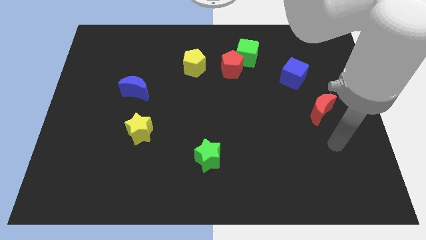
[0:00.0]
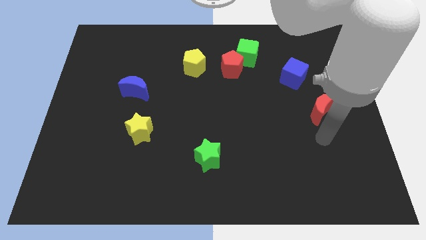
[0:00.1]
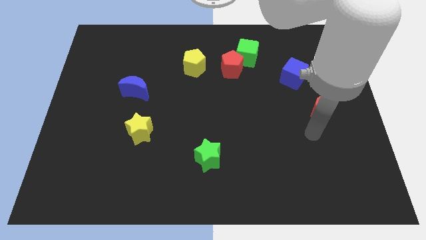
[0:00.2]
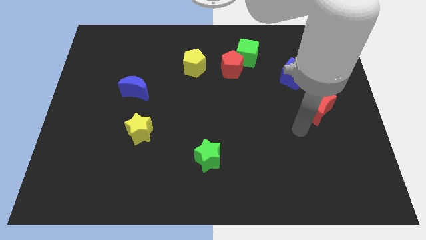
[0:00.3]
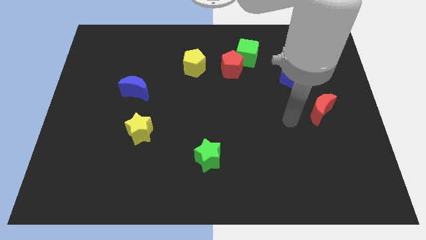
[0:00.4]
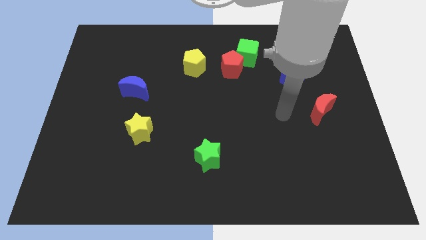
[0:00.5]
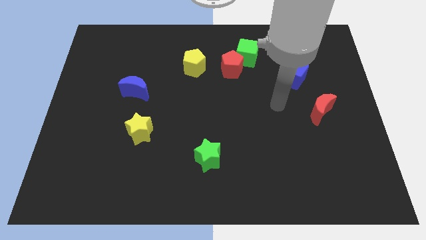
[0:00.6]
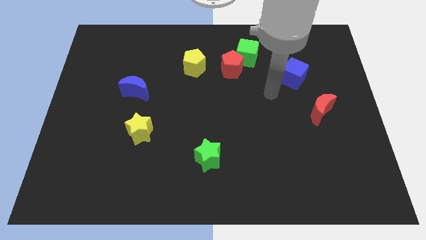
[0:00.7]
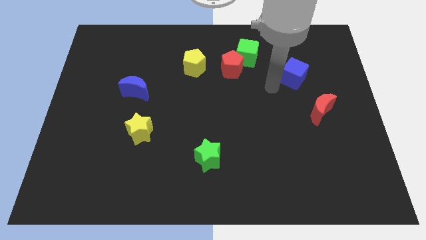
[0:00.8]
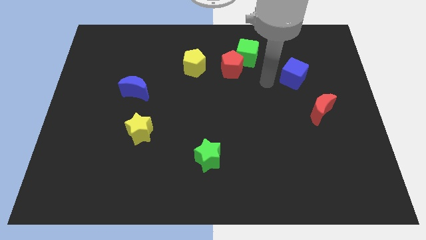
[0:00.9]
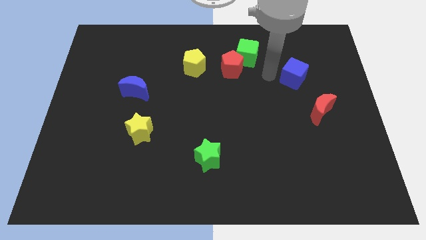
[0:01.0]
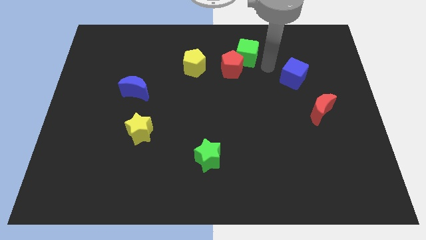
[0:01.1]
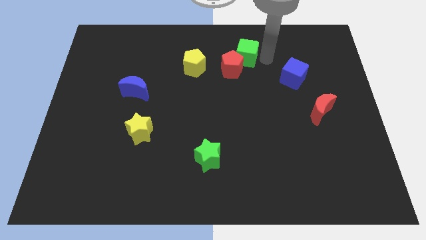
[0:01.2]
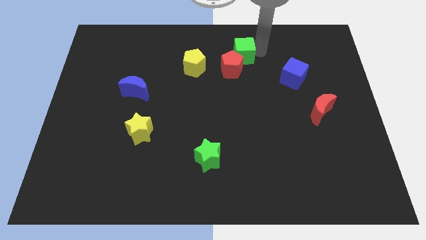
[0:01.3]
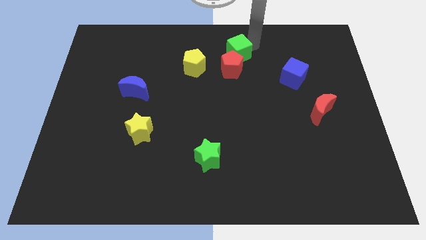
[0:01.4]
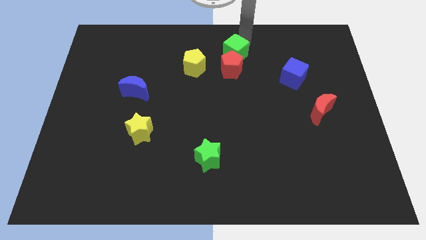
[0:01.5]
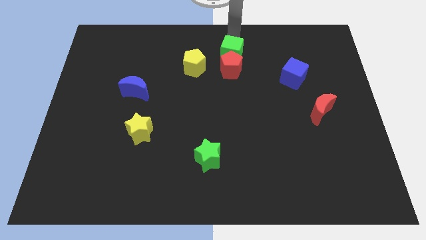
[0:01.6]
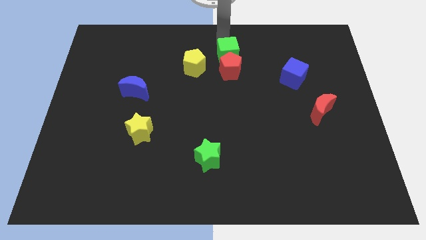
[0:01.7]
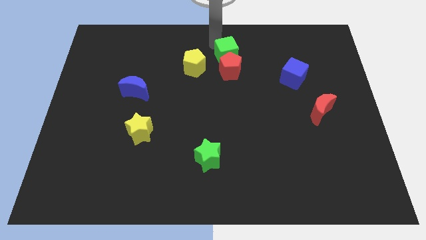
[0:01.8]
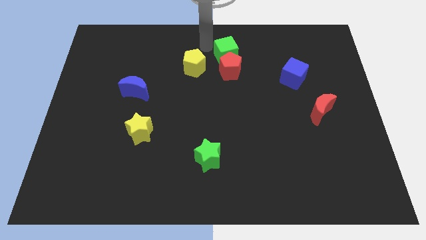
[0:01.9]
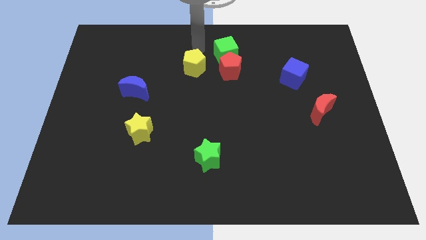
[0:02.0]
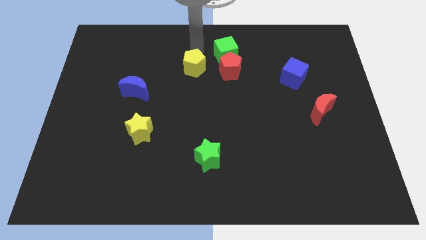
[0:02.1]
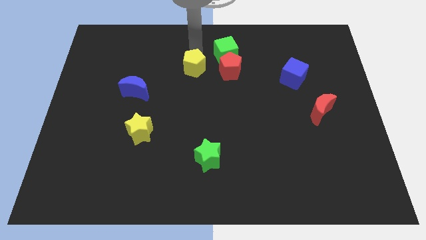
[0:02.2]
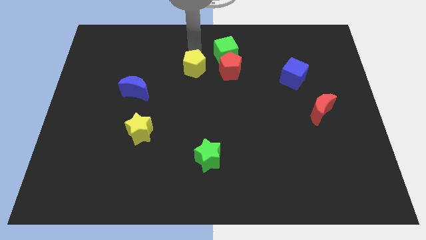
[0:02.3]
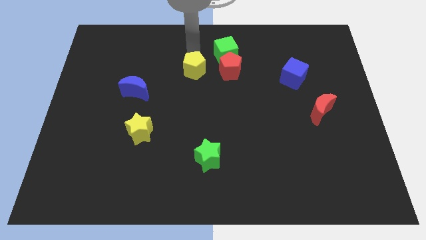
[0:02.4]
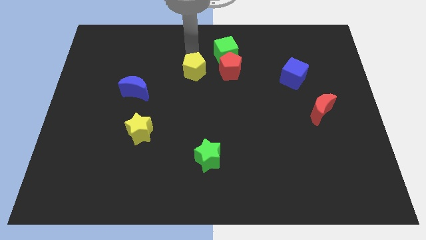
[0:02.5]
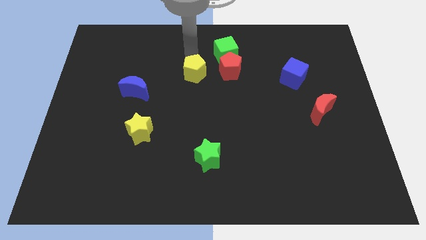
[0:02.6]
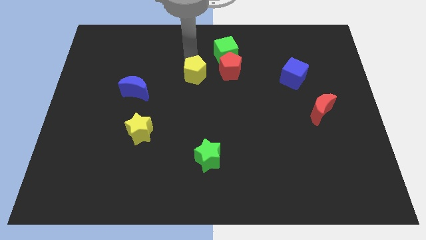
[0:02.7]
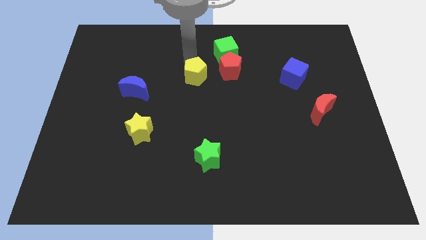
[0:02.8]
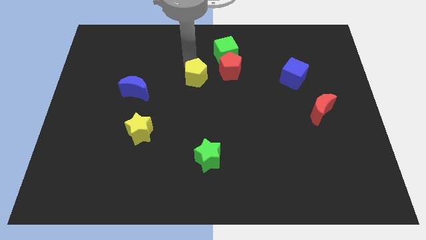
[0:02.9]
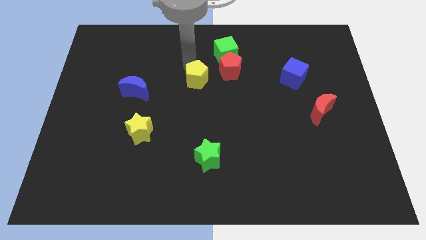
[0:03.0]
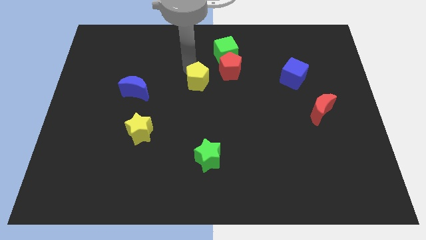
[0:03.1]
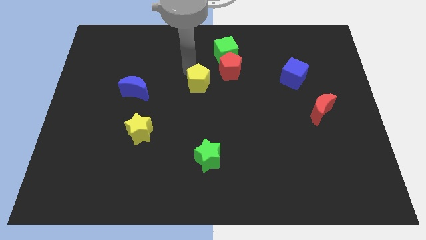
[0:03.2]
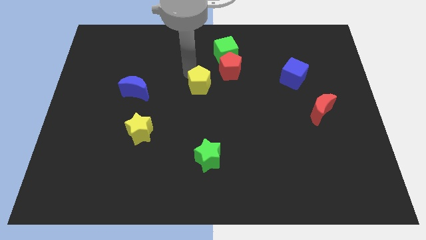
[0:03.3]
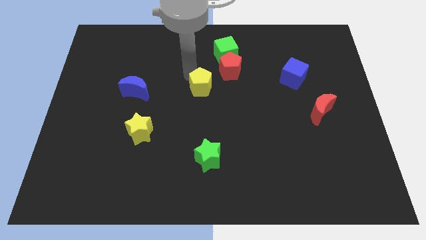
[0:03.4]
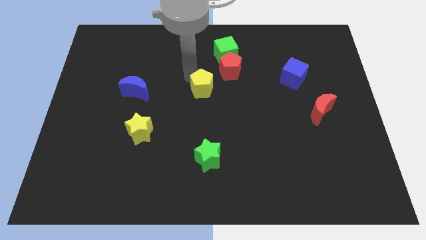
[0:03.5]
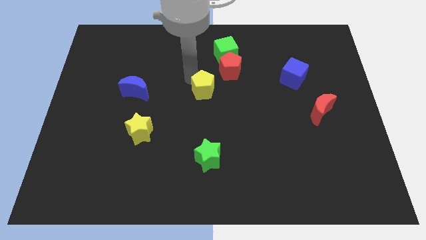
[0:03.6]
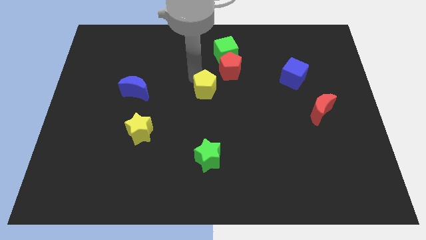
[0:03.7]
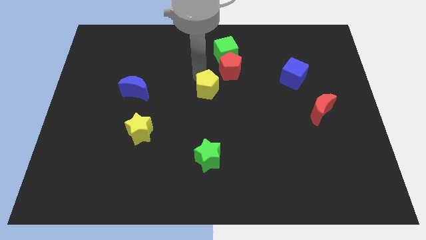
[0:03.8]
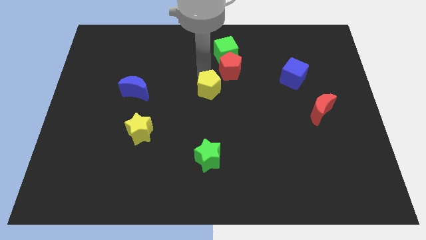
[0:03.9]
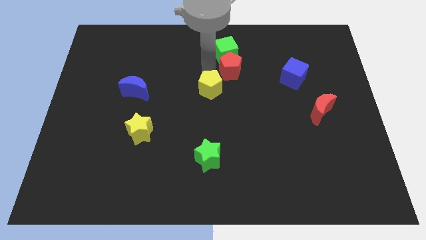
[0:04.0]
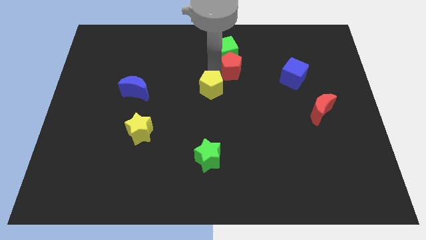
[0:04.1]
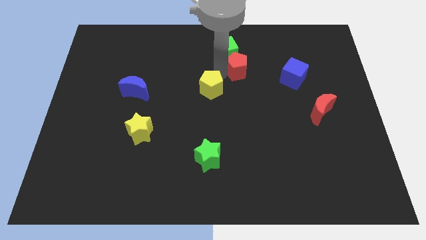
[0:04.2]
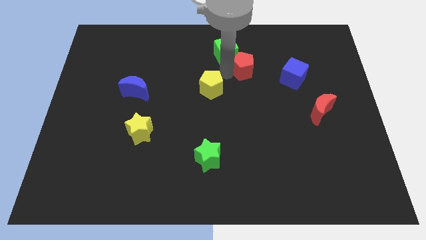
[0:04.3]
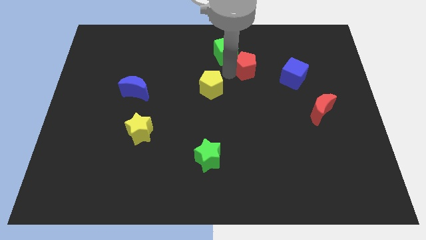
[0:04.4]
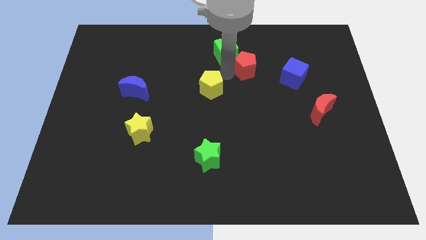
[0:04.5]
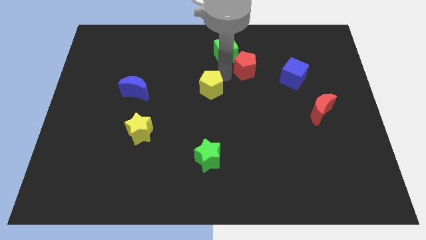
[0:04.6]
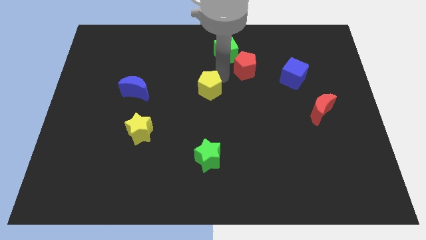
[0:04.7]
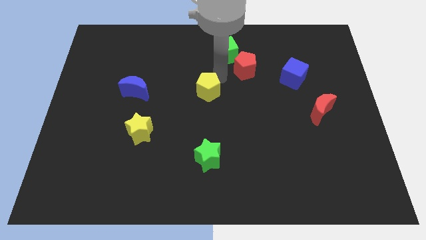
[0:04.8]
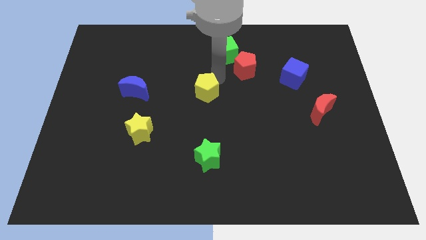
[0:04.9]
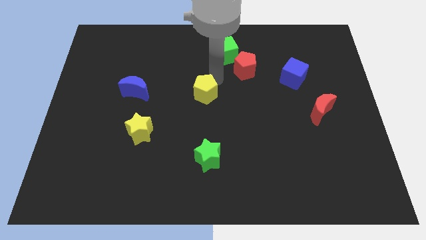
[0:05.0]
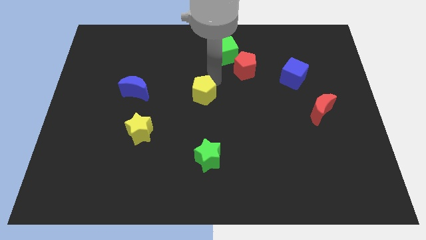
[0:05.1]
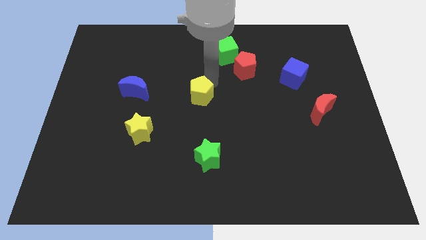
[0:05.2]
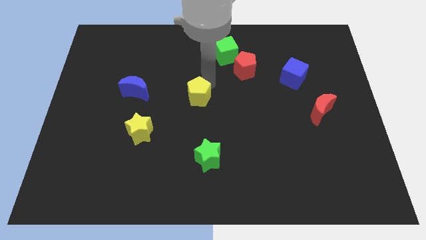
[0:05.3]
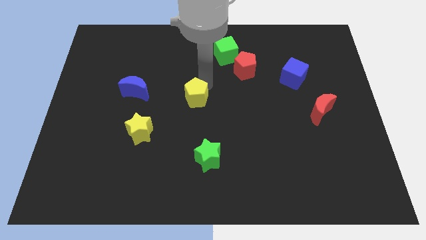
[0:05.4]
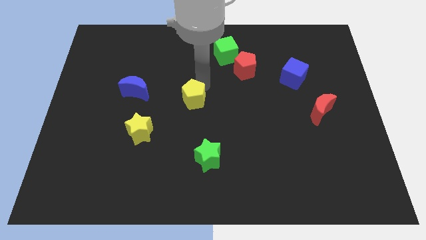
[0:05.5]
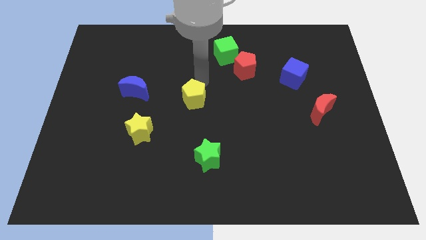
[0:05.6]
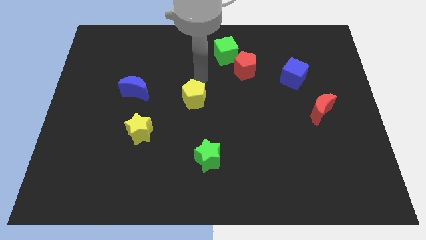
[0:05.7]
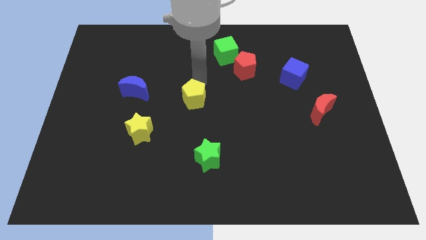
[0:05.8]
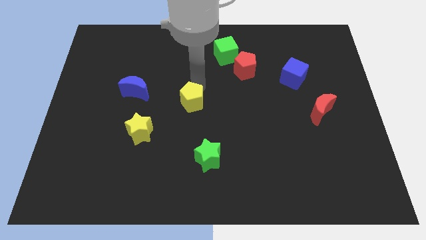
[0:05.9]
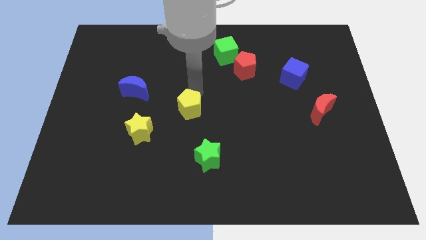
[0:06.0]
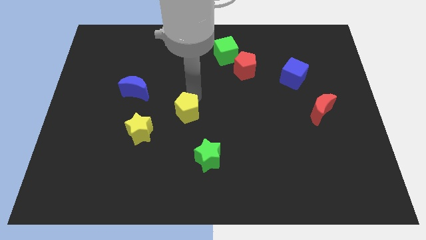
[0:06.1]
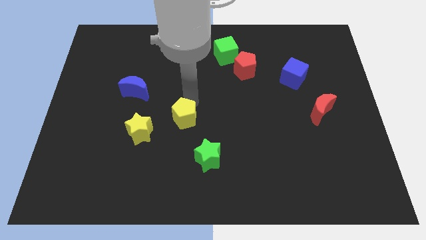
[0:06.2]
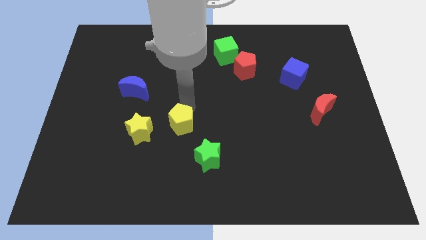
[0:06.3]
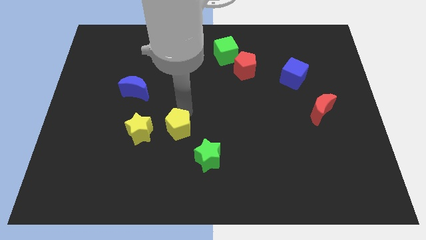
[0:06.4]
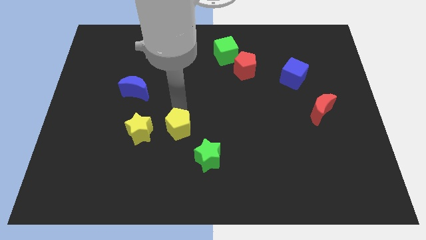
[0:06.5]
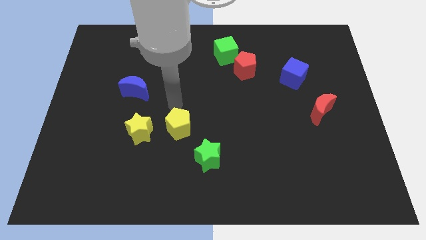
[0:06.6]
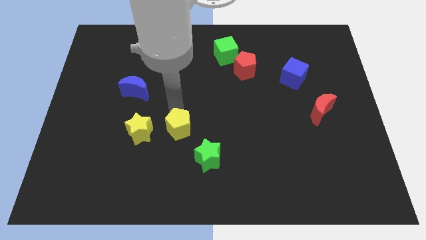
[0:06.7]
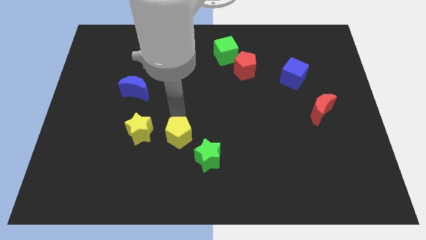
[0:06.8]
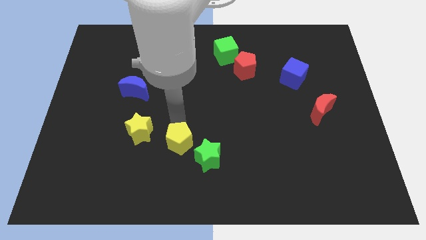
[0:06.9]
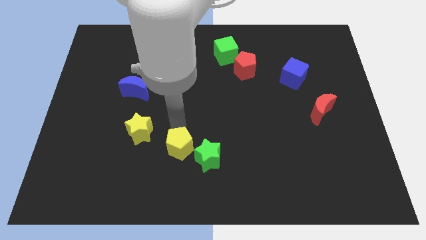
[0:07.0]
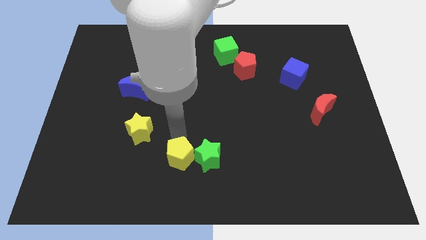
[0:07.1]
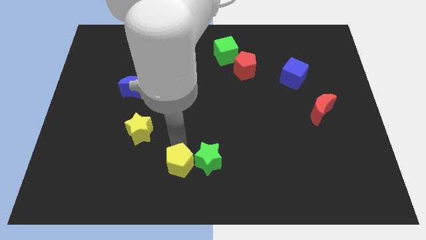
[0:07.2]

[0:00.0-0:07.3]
put the yellow pentagon to the bottom
